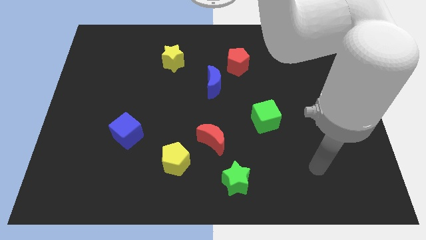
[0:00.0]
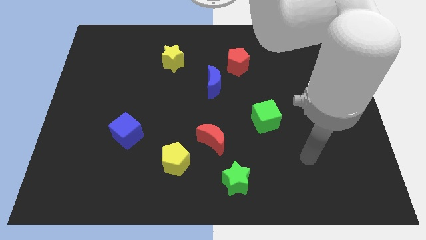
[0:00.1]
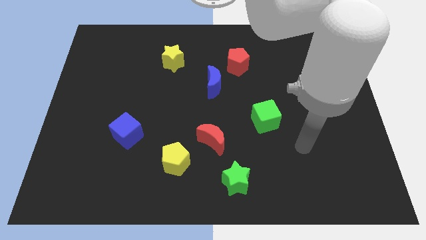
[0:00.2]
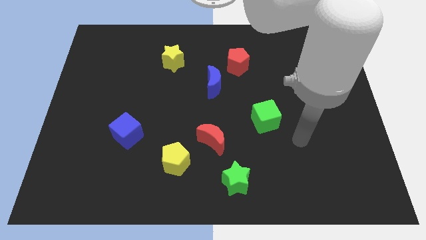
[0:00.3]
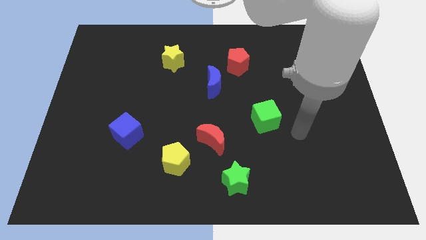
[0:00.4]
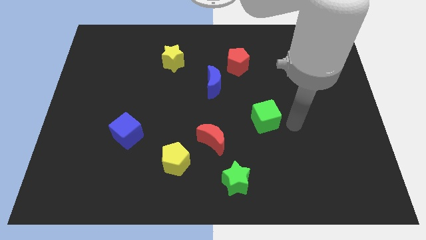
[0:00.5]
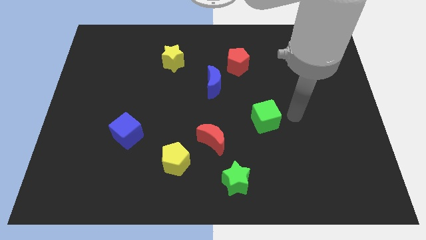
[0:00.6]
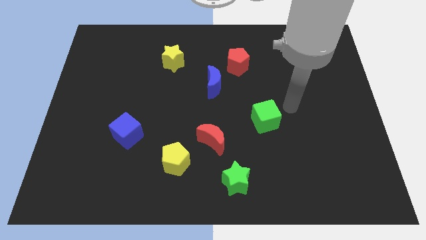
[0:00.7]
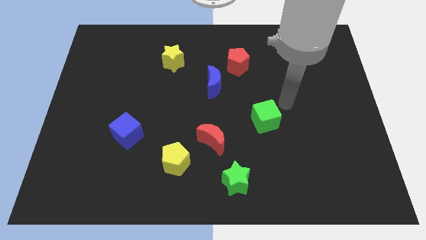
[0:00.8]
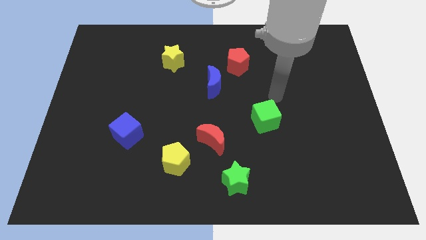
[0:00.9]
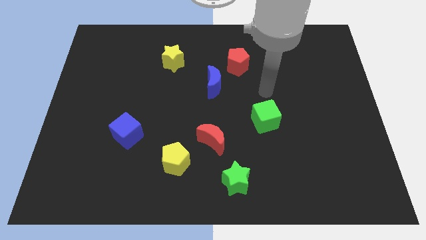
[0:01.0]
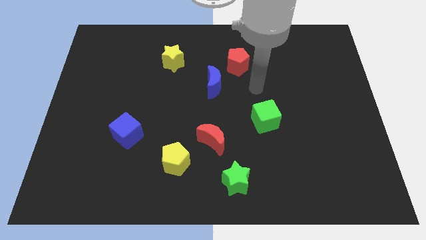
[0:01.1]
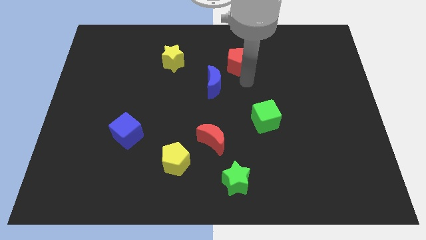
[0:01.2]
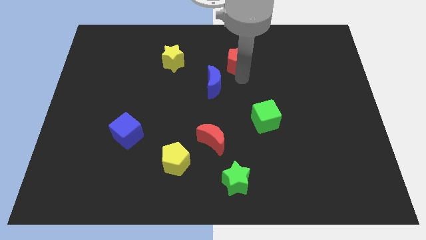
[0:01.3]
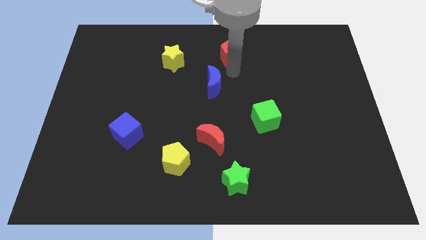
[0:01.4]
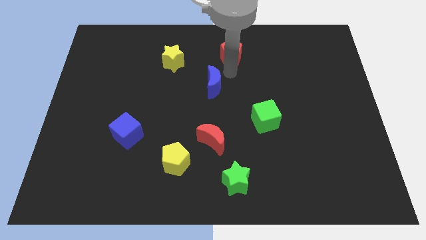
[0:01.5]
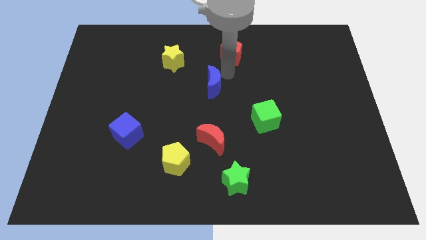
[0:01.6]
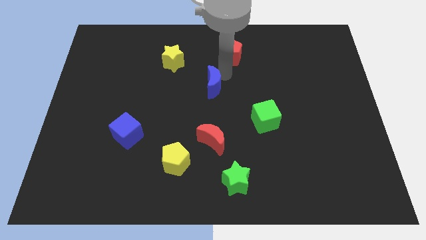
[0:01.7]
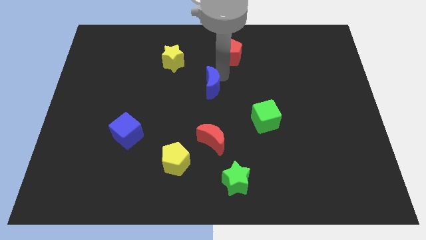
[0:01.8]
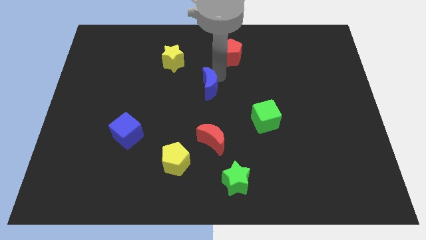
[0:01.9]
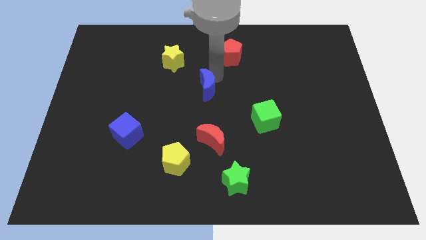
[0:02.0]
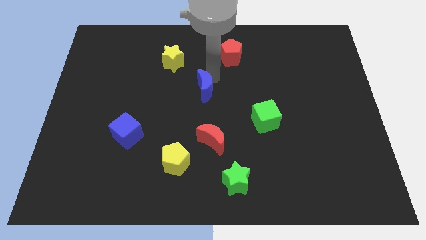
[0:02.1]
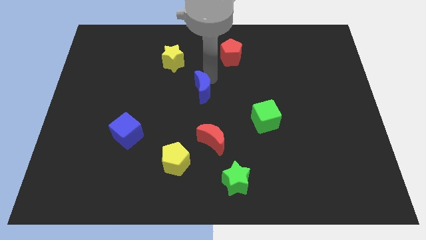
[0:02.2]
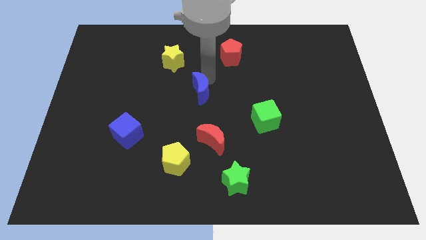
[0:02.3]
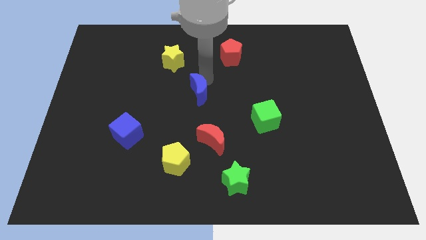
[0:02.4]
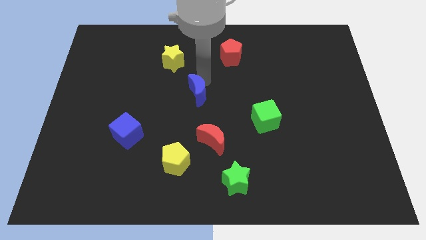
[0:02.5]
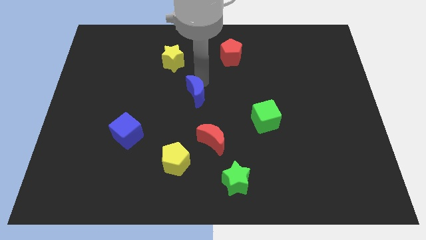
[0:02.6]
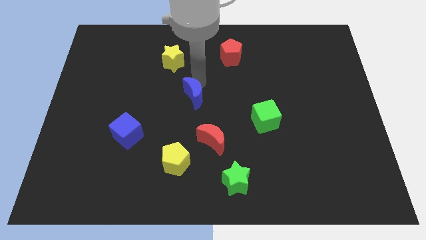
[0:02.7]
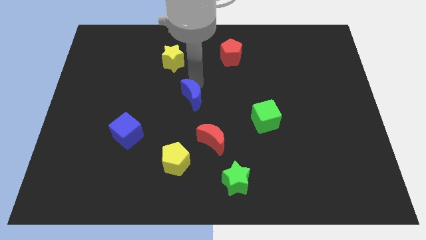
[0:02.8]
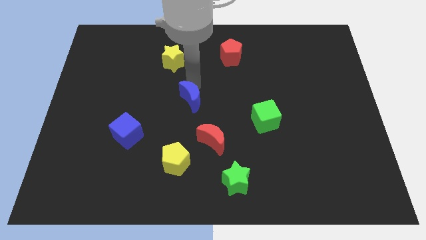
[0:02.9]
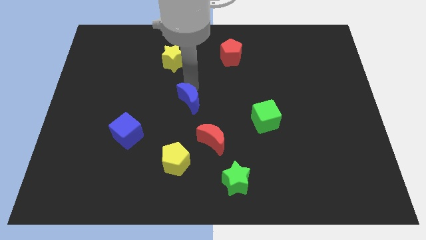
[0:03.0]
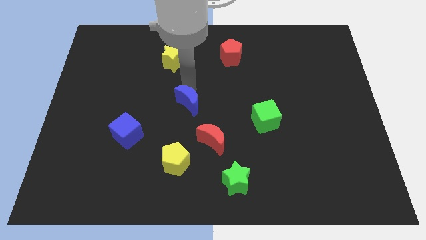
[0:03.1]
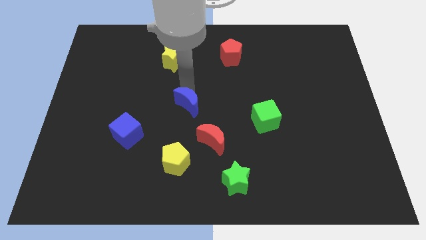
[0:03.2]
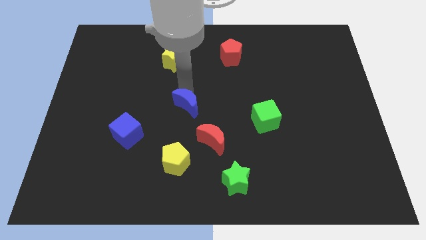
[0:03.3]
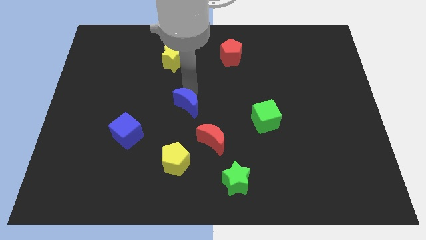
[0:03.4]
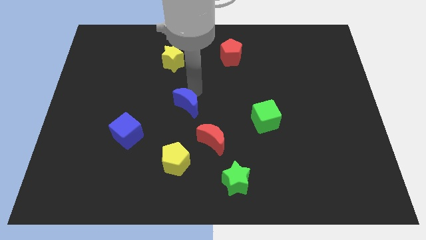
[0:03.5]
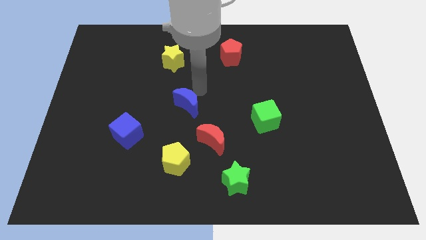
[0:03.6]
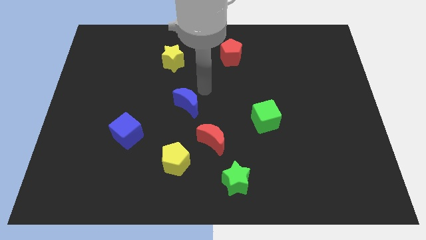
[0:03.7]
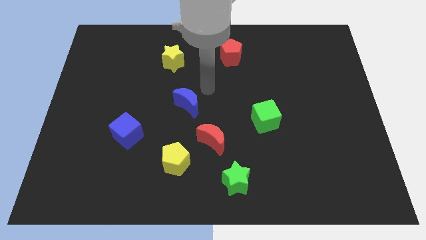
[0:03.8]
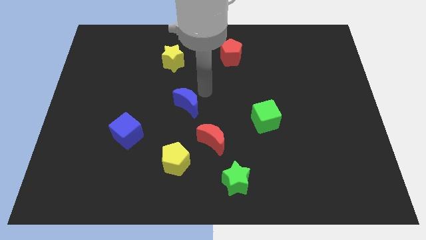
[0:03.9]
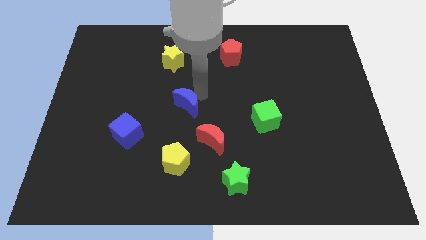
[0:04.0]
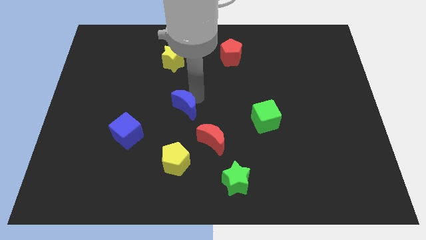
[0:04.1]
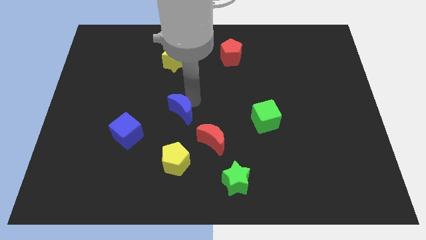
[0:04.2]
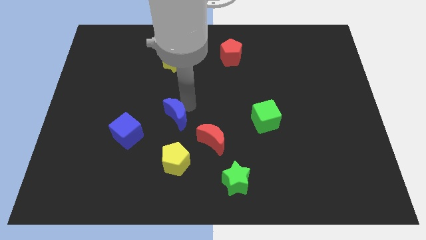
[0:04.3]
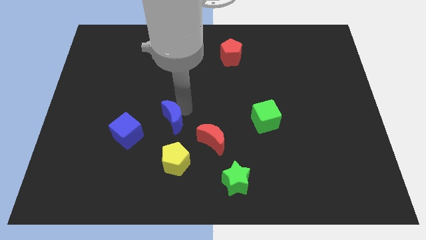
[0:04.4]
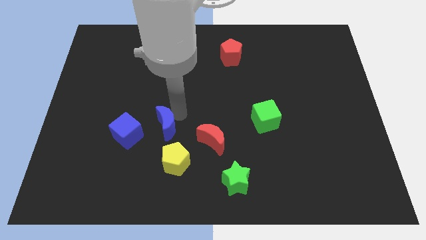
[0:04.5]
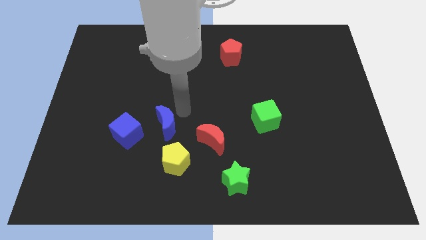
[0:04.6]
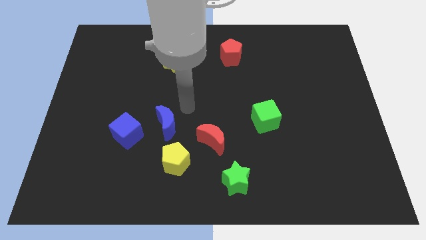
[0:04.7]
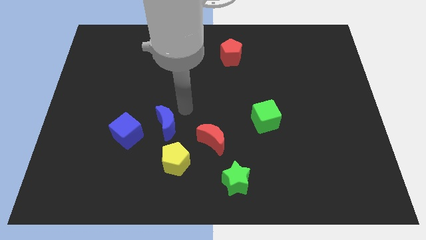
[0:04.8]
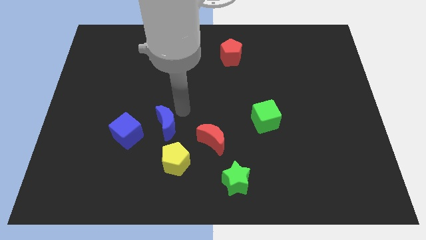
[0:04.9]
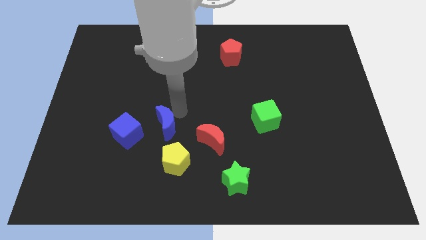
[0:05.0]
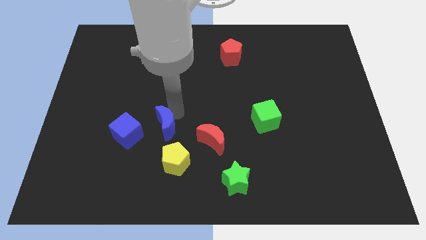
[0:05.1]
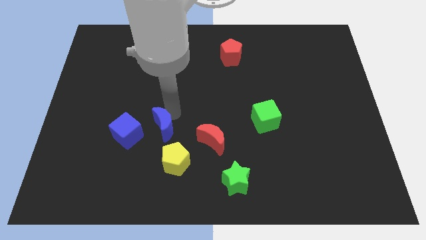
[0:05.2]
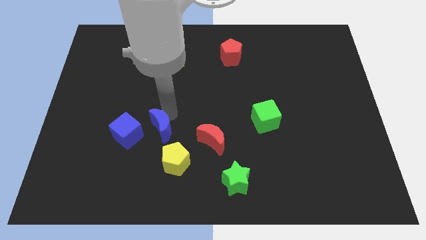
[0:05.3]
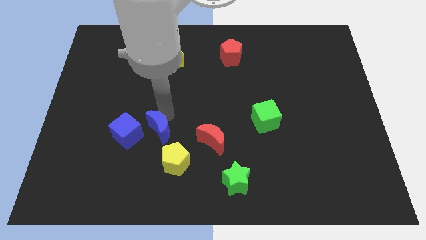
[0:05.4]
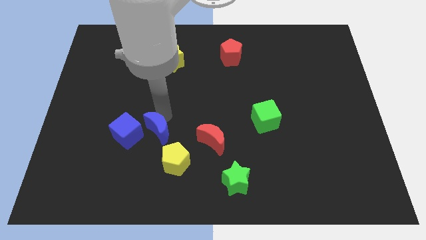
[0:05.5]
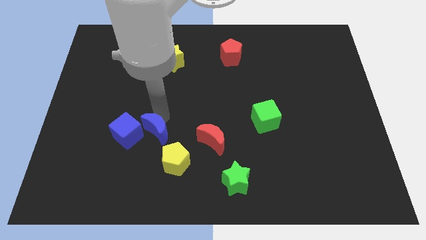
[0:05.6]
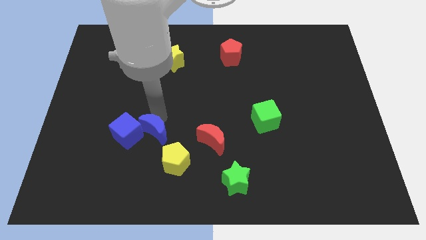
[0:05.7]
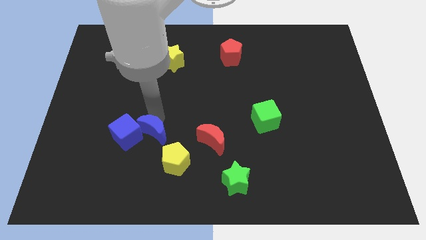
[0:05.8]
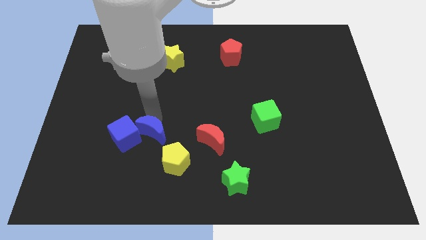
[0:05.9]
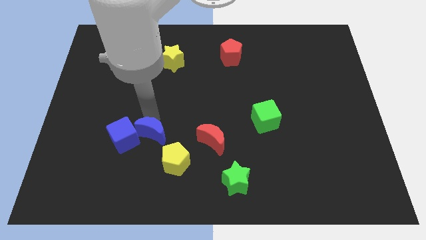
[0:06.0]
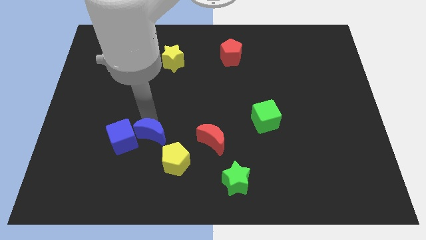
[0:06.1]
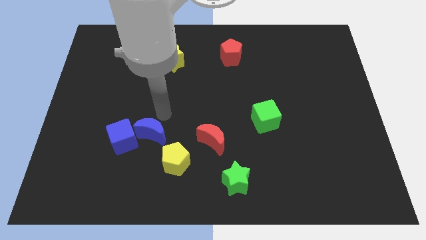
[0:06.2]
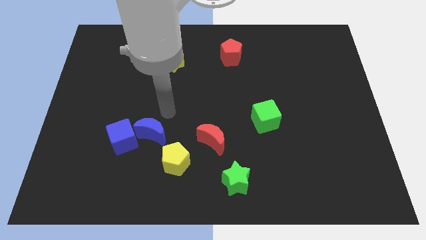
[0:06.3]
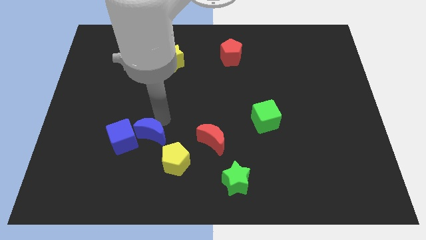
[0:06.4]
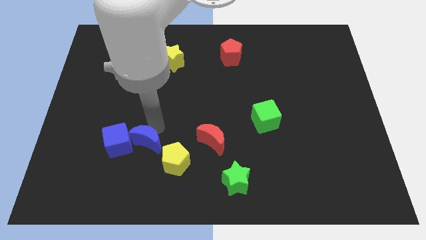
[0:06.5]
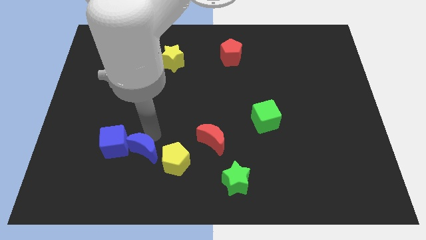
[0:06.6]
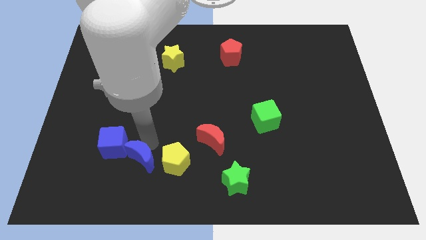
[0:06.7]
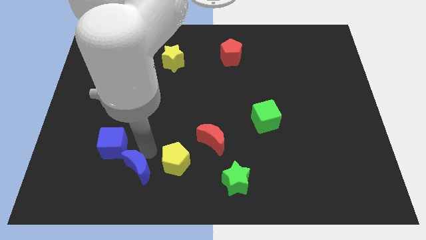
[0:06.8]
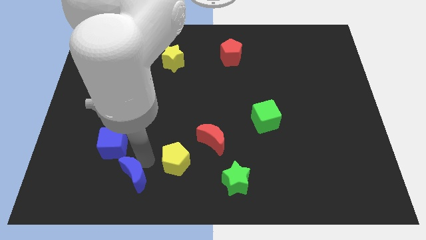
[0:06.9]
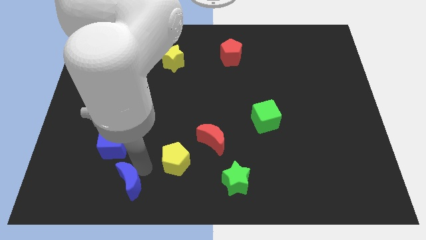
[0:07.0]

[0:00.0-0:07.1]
slide the blue moon to the bottom of the blue cube

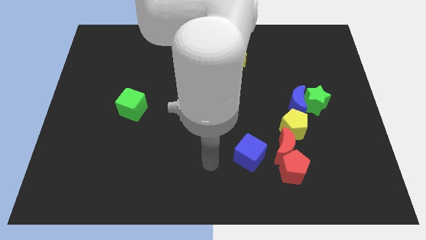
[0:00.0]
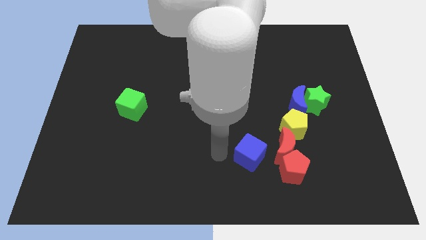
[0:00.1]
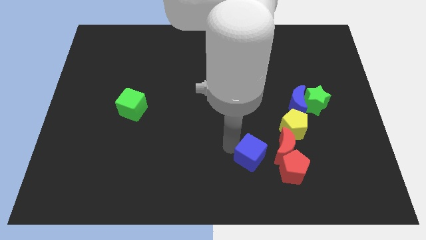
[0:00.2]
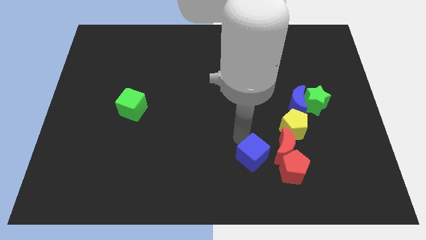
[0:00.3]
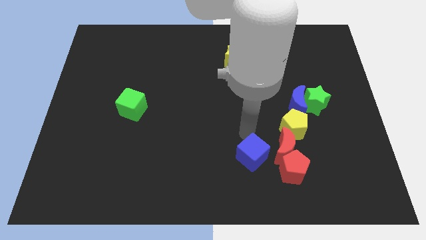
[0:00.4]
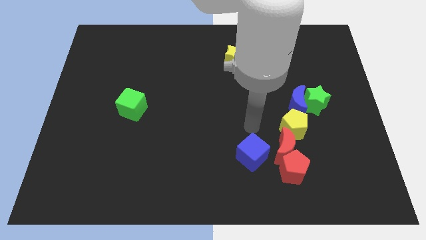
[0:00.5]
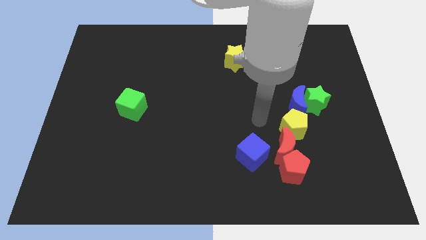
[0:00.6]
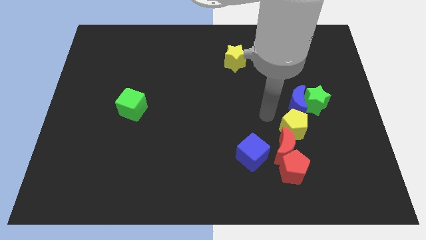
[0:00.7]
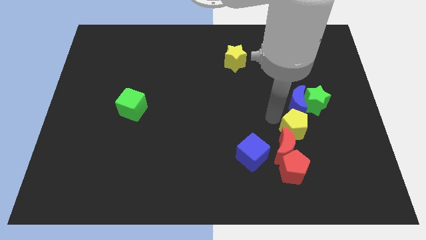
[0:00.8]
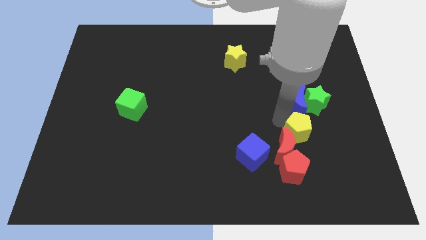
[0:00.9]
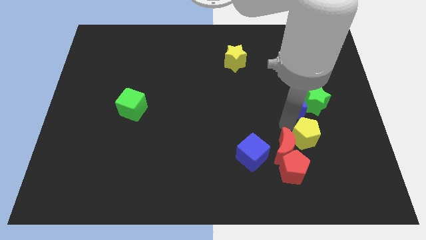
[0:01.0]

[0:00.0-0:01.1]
put the yellow pentagon below the green star
